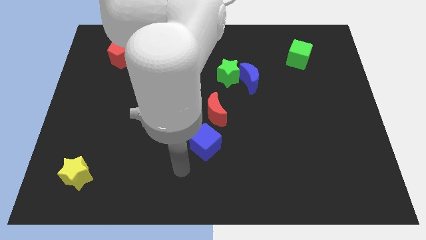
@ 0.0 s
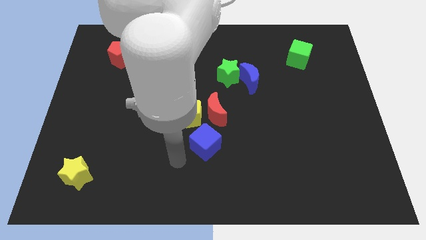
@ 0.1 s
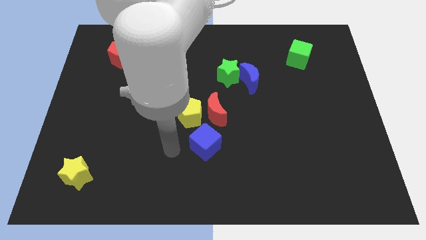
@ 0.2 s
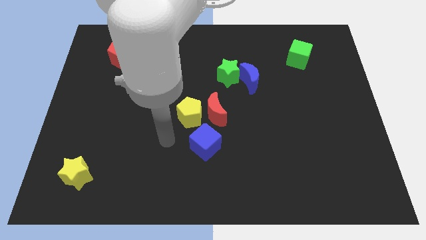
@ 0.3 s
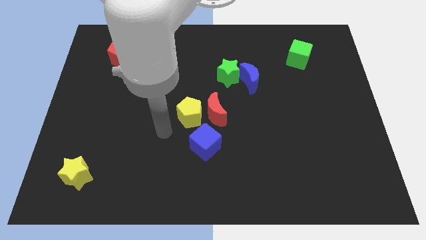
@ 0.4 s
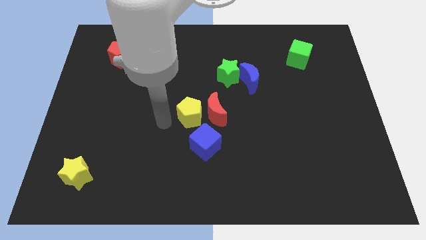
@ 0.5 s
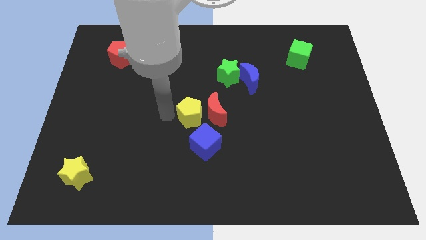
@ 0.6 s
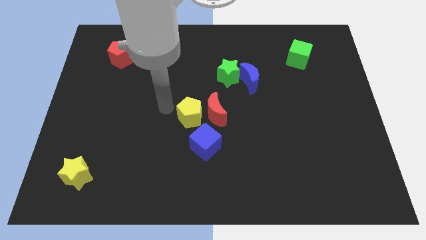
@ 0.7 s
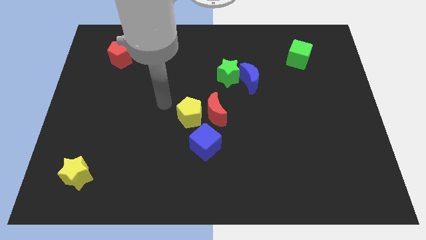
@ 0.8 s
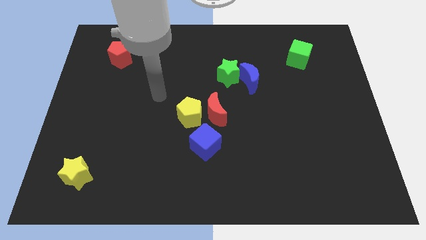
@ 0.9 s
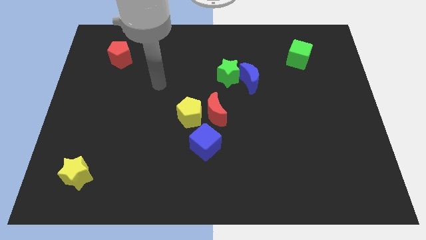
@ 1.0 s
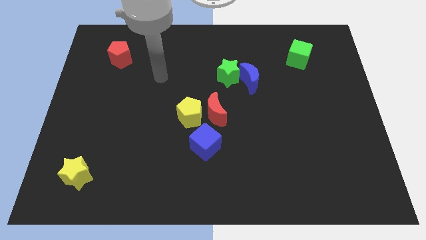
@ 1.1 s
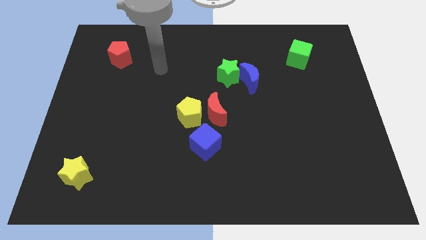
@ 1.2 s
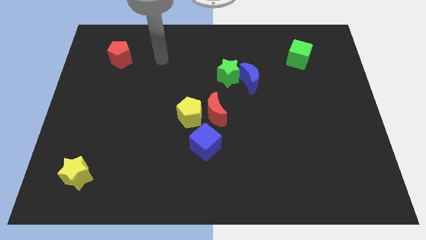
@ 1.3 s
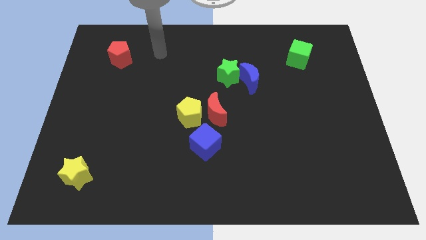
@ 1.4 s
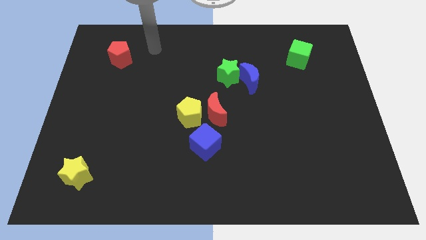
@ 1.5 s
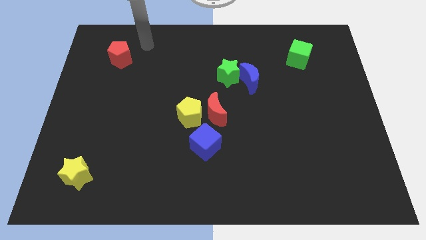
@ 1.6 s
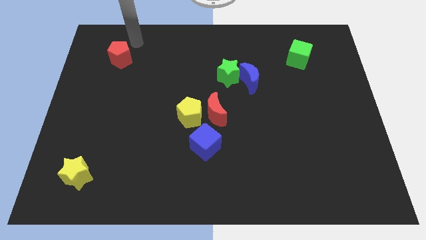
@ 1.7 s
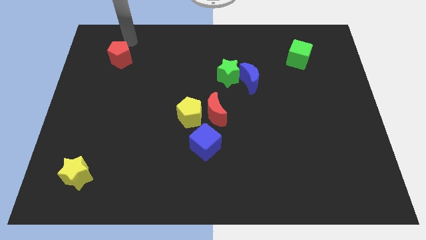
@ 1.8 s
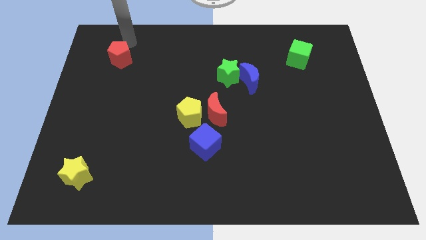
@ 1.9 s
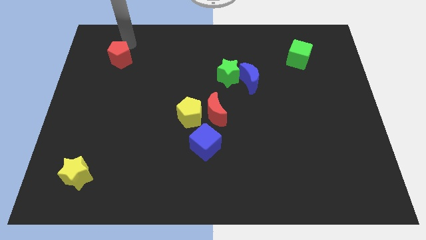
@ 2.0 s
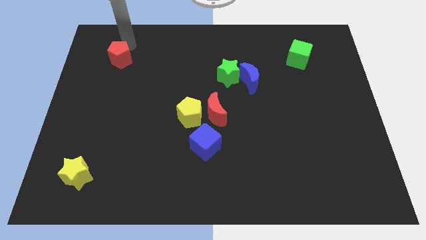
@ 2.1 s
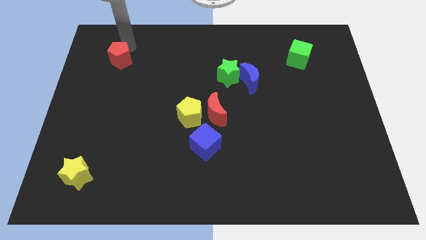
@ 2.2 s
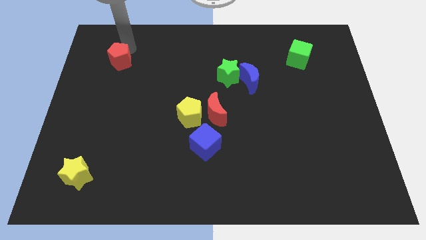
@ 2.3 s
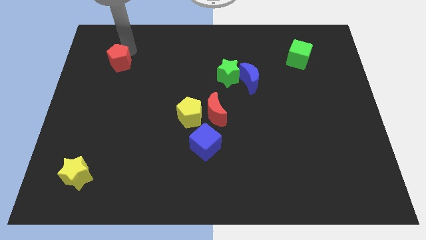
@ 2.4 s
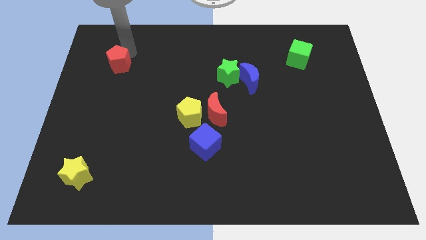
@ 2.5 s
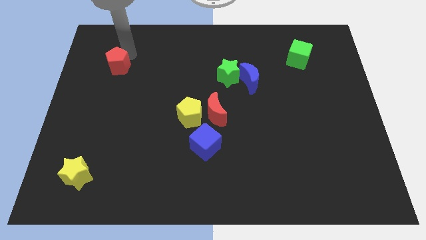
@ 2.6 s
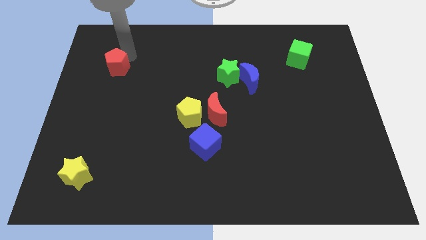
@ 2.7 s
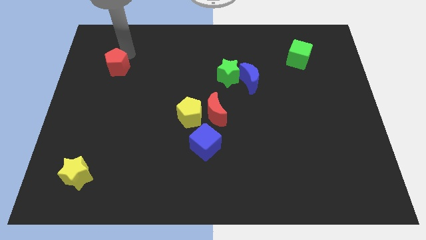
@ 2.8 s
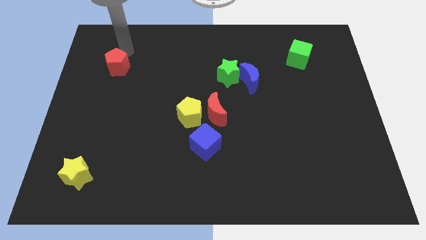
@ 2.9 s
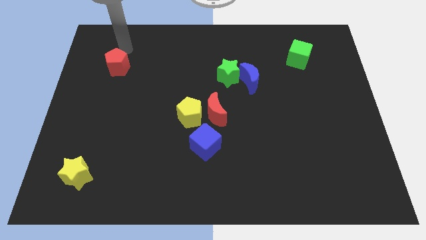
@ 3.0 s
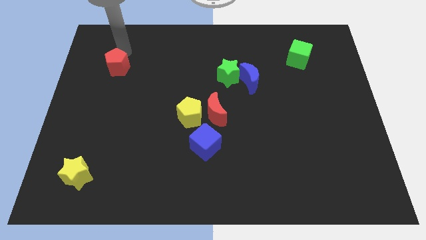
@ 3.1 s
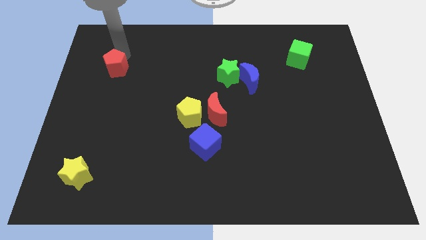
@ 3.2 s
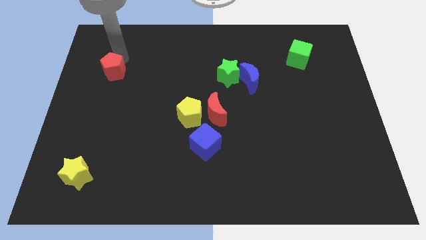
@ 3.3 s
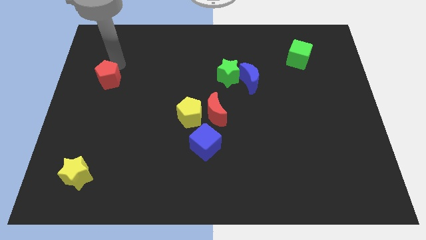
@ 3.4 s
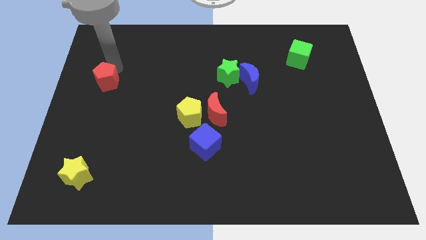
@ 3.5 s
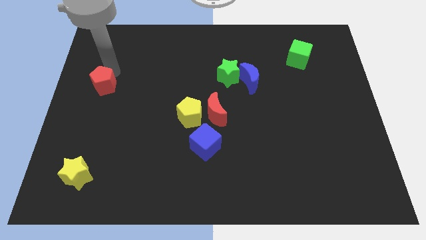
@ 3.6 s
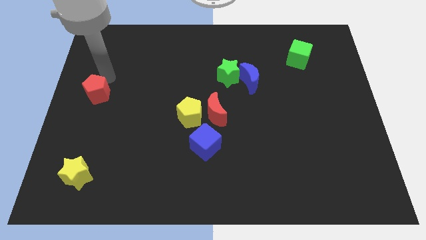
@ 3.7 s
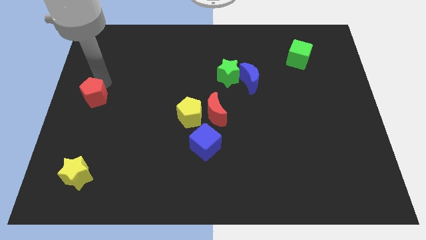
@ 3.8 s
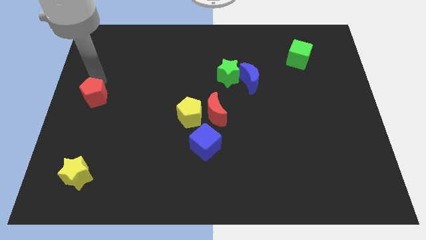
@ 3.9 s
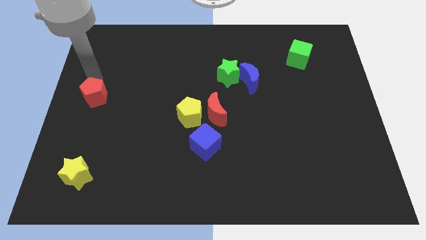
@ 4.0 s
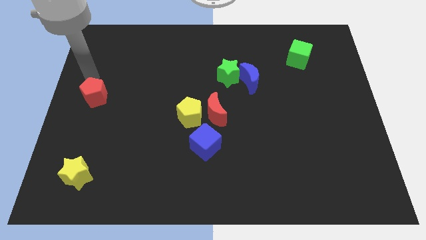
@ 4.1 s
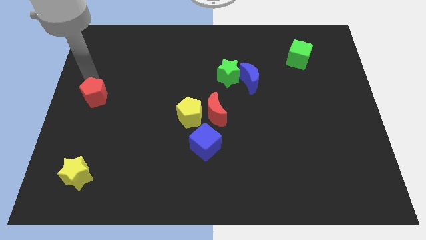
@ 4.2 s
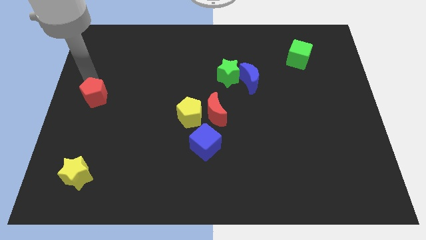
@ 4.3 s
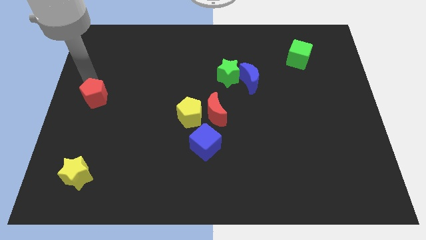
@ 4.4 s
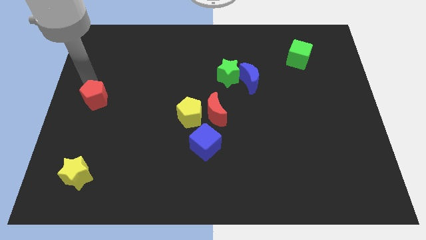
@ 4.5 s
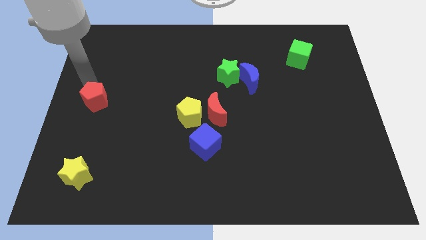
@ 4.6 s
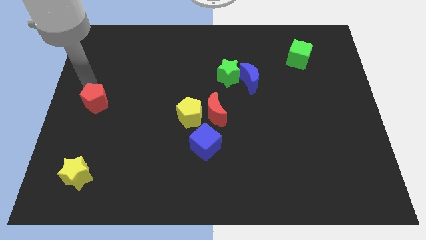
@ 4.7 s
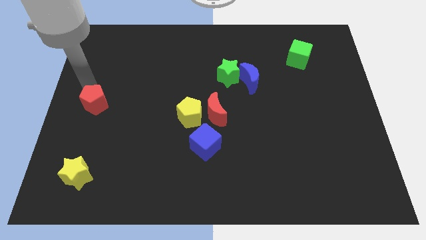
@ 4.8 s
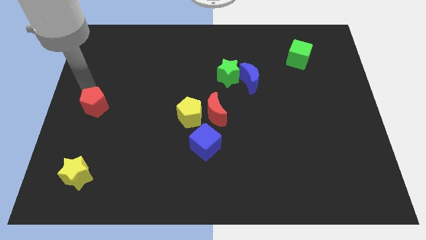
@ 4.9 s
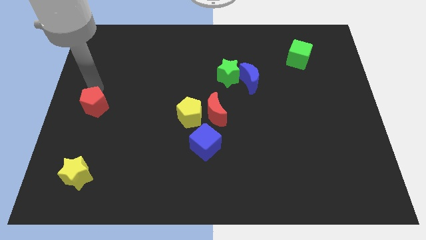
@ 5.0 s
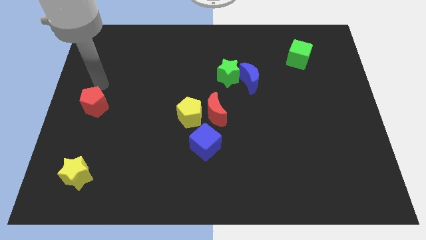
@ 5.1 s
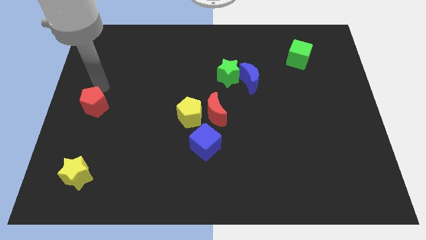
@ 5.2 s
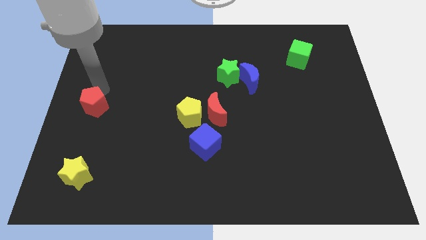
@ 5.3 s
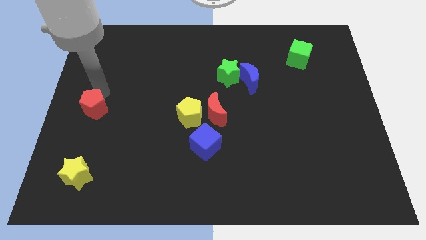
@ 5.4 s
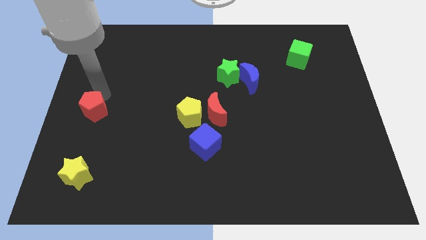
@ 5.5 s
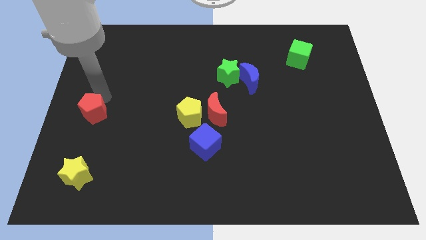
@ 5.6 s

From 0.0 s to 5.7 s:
slide the red pentagon above the yellow star
